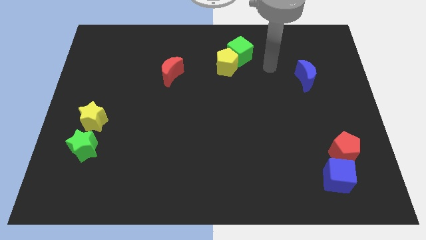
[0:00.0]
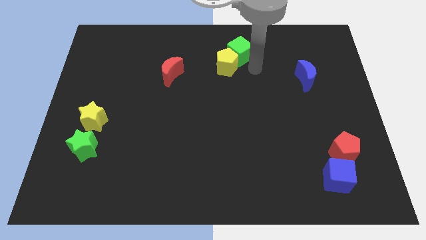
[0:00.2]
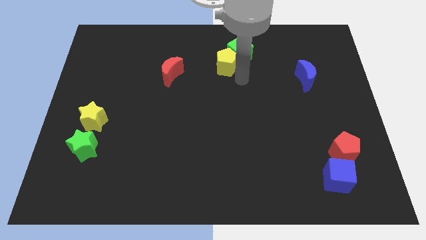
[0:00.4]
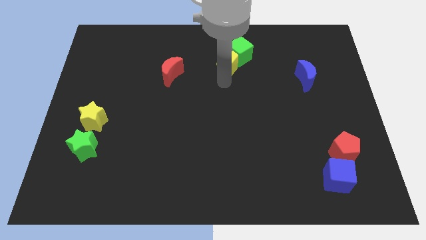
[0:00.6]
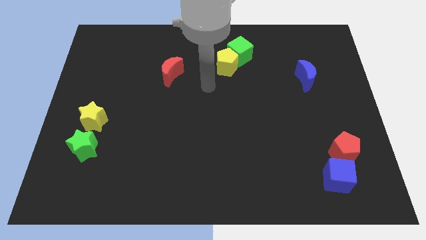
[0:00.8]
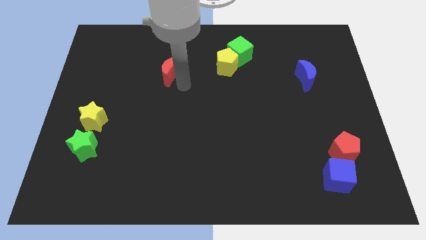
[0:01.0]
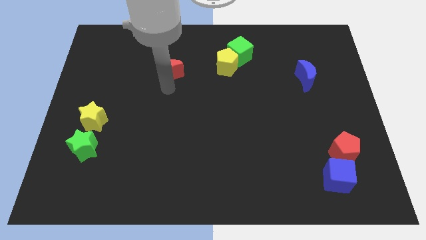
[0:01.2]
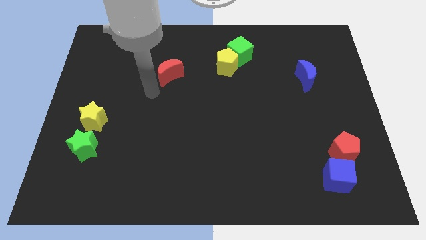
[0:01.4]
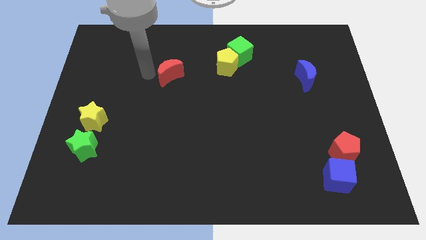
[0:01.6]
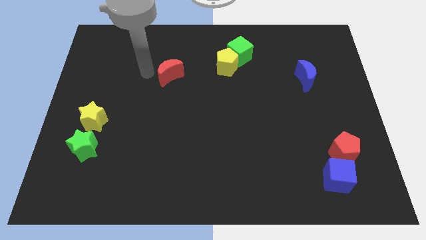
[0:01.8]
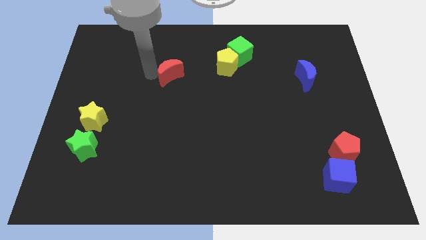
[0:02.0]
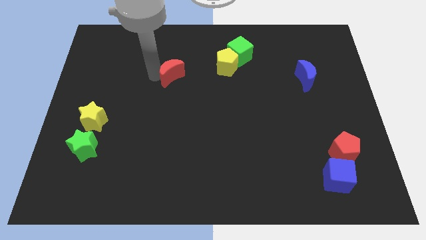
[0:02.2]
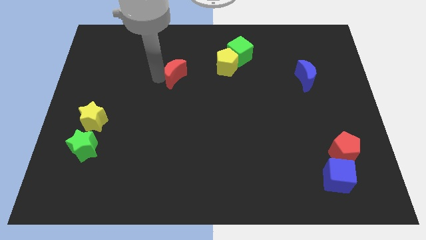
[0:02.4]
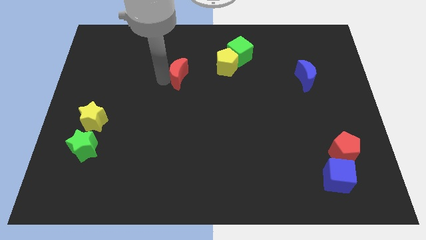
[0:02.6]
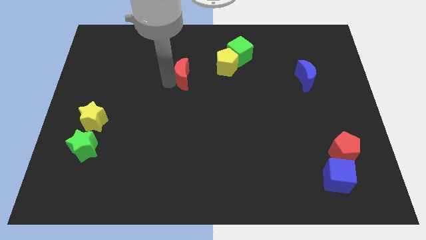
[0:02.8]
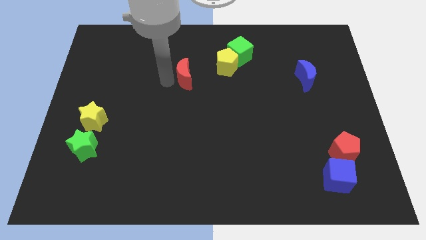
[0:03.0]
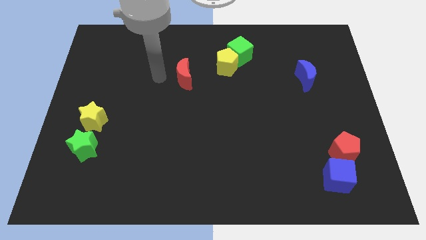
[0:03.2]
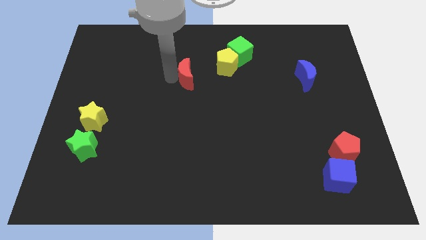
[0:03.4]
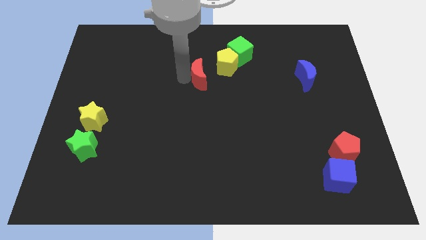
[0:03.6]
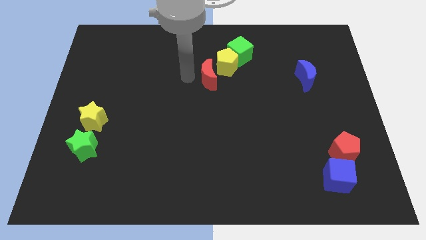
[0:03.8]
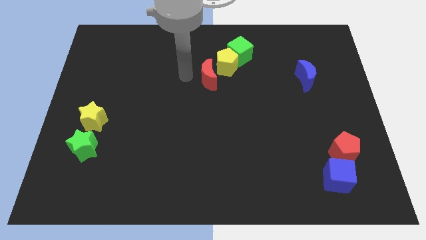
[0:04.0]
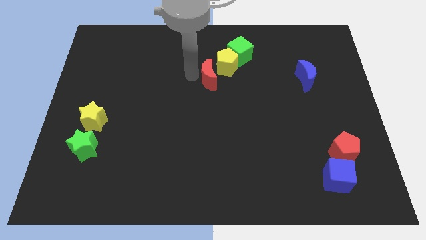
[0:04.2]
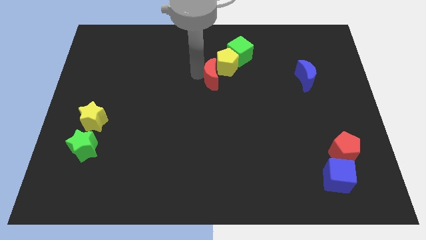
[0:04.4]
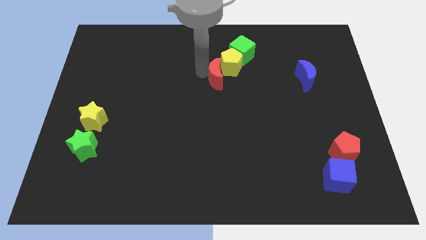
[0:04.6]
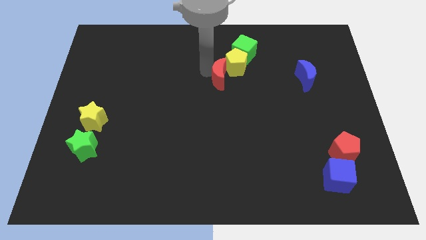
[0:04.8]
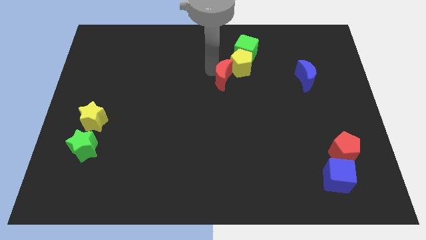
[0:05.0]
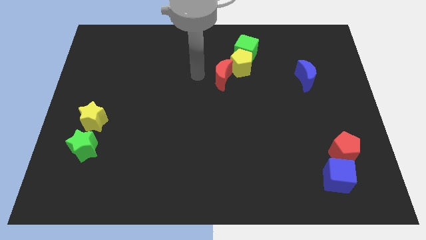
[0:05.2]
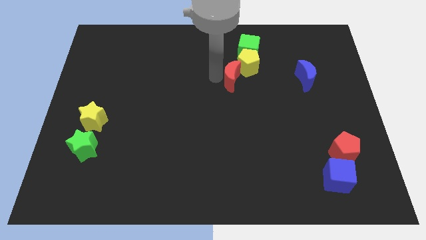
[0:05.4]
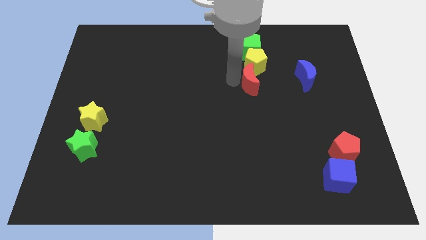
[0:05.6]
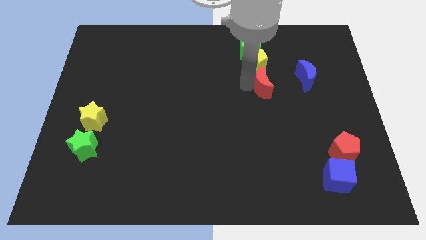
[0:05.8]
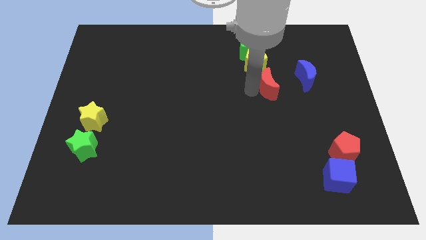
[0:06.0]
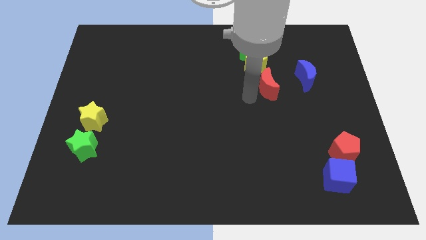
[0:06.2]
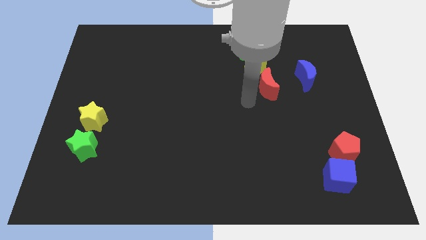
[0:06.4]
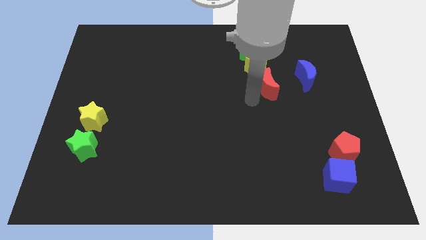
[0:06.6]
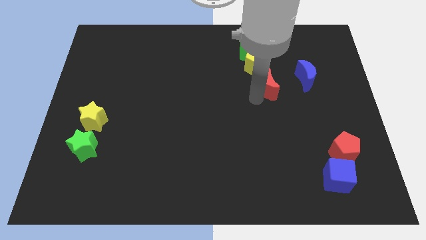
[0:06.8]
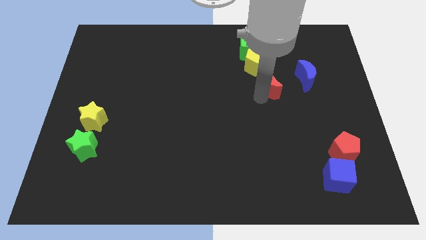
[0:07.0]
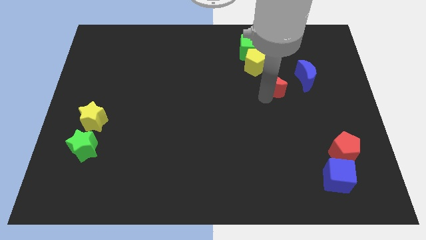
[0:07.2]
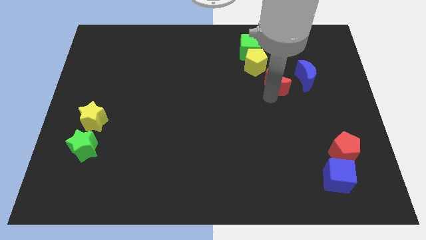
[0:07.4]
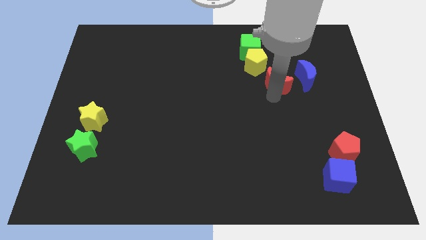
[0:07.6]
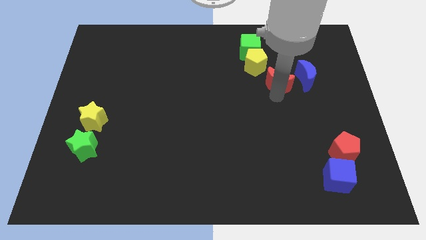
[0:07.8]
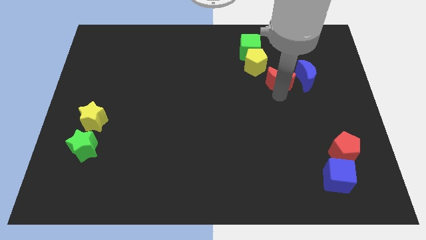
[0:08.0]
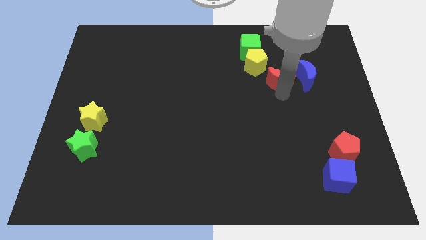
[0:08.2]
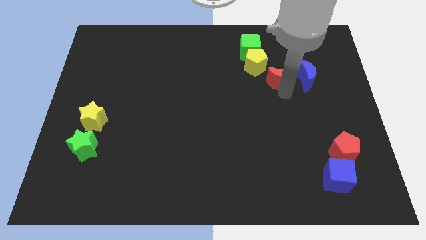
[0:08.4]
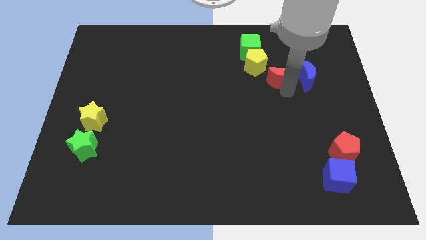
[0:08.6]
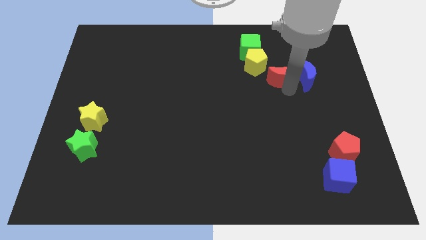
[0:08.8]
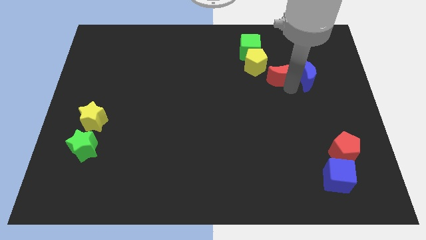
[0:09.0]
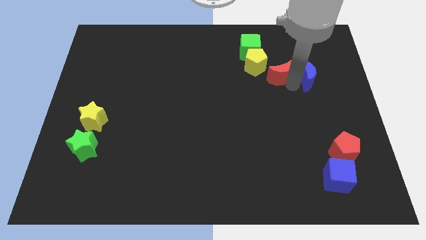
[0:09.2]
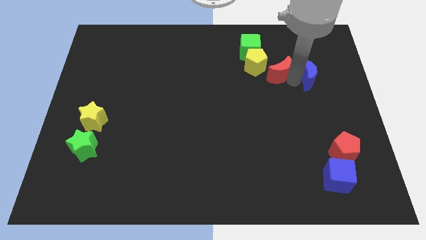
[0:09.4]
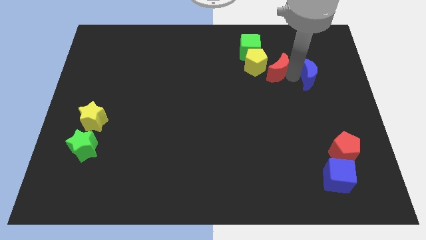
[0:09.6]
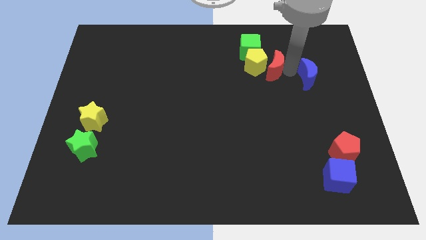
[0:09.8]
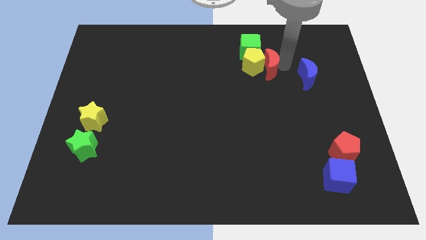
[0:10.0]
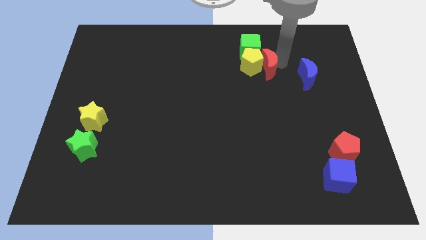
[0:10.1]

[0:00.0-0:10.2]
move the red moon to the bottom right of the yellow pentagon

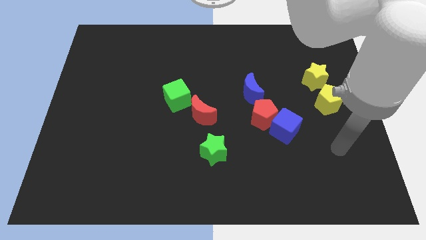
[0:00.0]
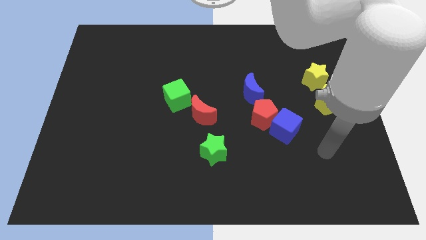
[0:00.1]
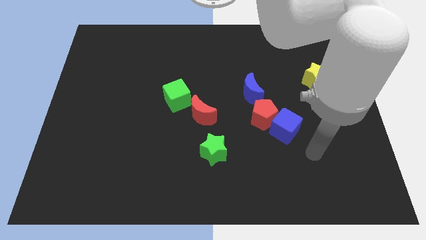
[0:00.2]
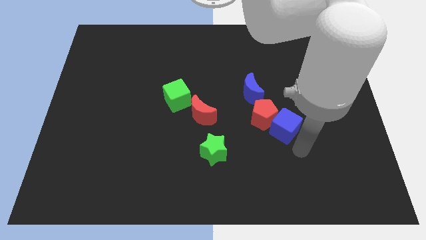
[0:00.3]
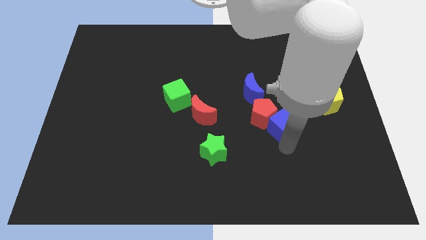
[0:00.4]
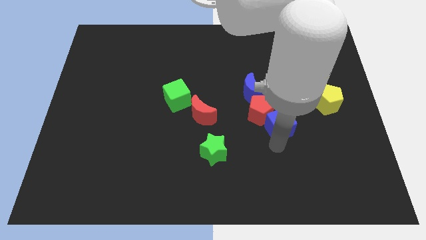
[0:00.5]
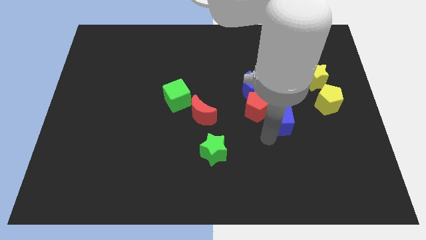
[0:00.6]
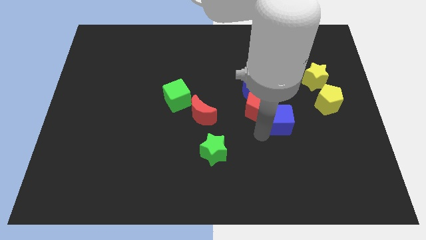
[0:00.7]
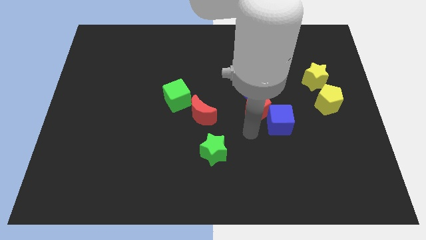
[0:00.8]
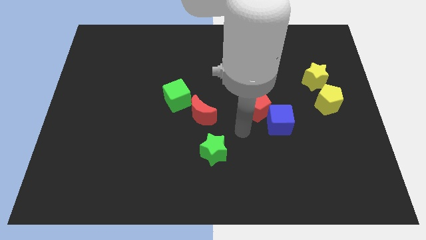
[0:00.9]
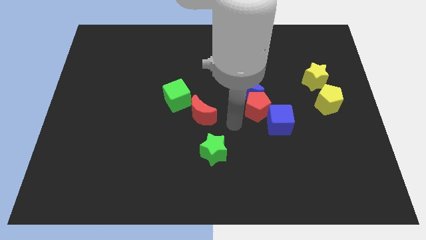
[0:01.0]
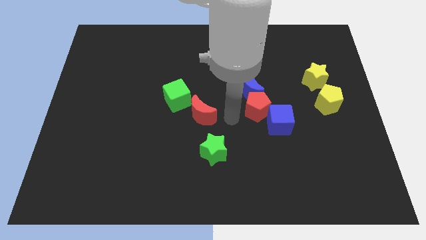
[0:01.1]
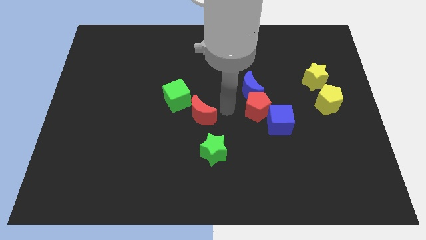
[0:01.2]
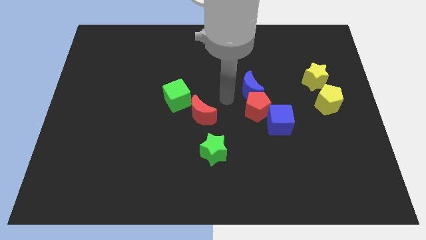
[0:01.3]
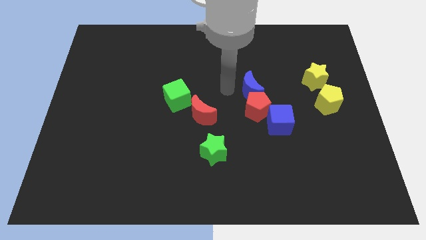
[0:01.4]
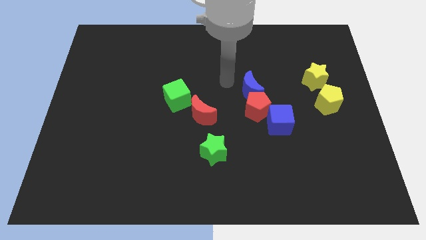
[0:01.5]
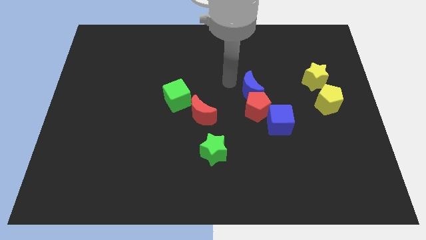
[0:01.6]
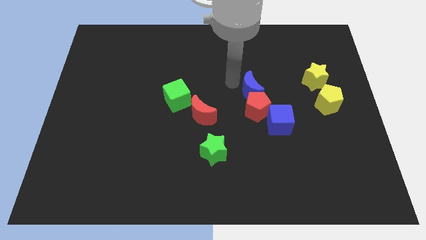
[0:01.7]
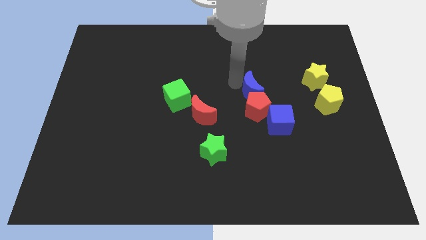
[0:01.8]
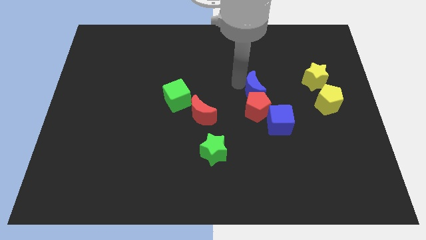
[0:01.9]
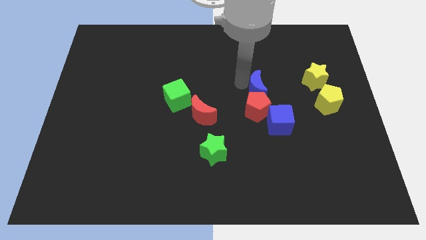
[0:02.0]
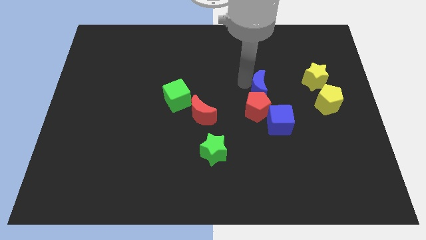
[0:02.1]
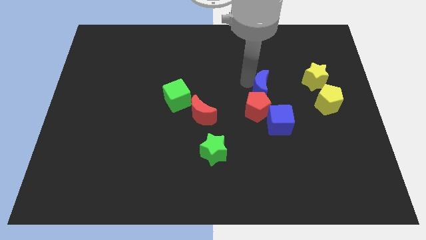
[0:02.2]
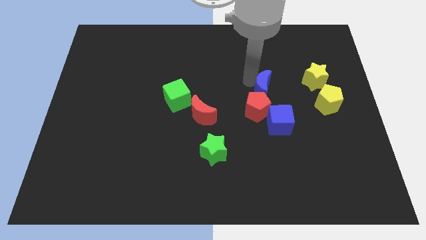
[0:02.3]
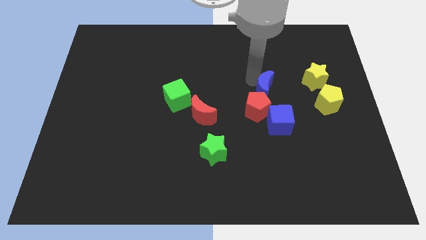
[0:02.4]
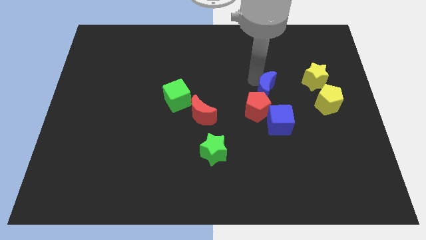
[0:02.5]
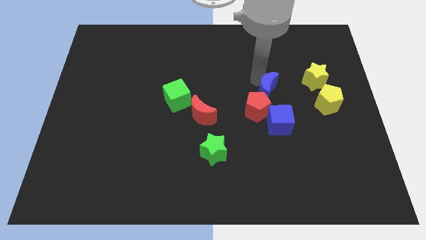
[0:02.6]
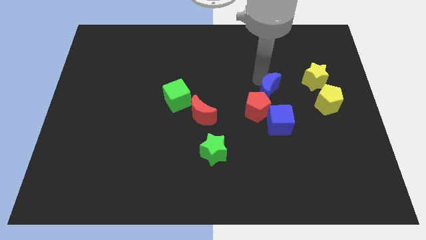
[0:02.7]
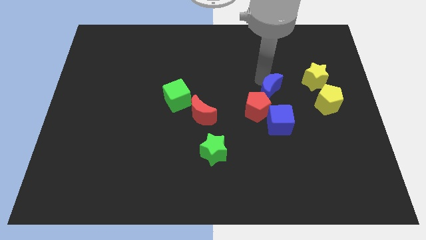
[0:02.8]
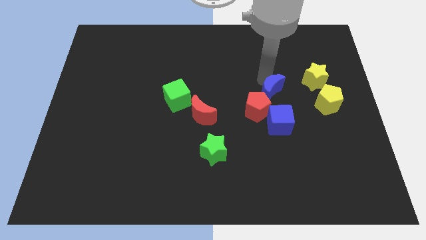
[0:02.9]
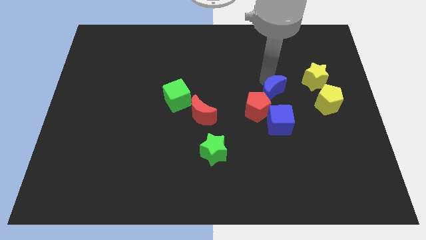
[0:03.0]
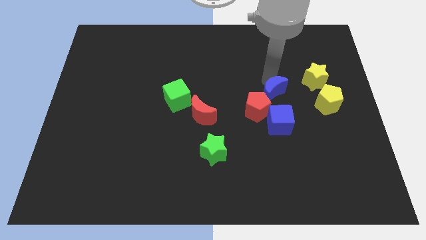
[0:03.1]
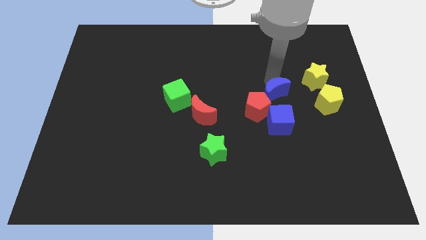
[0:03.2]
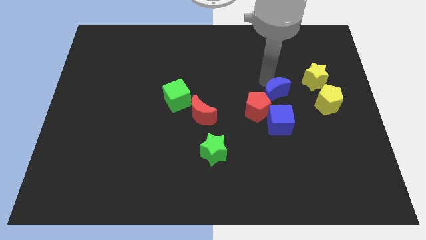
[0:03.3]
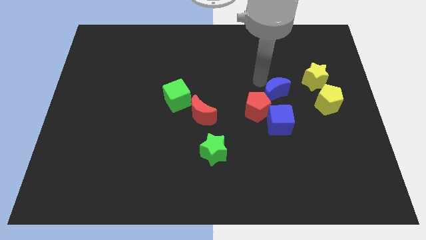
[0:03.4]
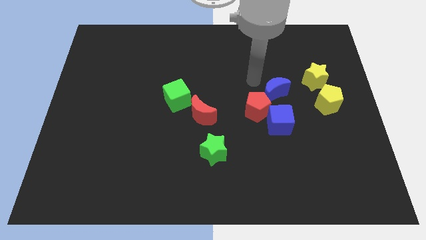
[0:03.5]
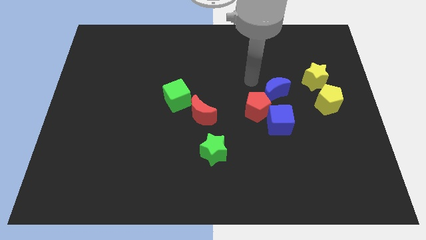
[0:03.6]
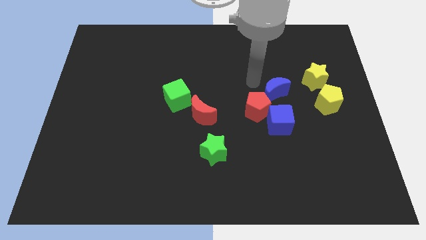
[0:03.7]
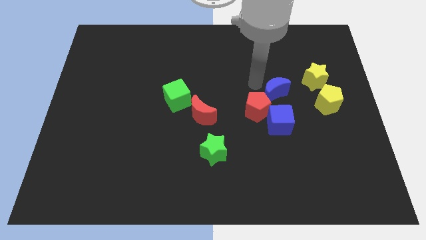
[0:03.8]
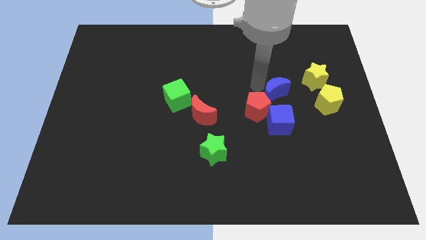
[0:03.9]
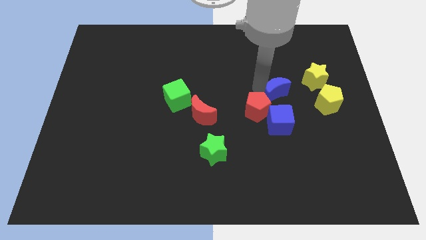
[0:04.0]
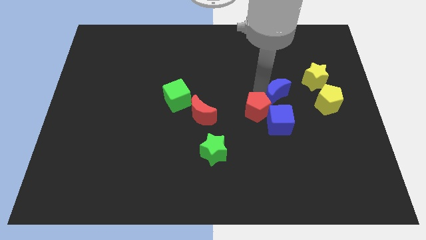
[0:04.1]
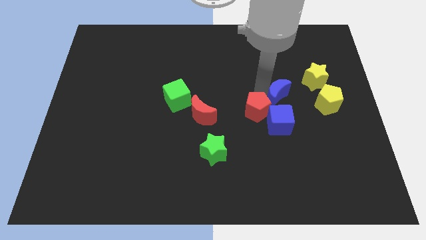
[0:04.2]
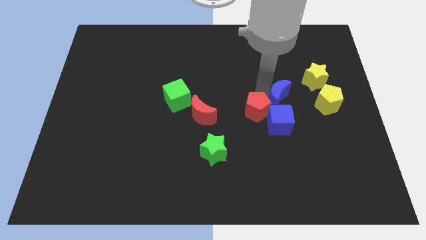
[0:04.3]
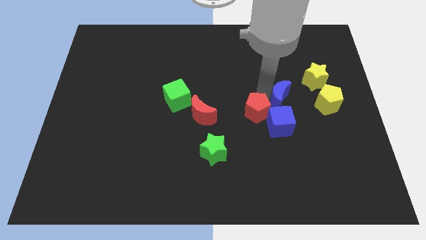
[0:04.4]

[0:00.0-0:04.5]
slide the blue moon to the top right side of the blue cube
